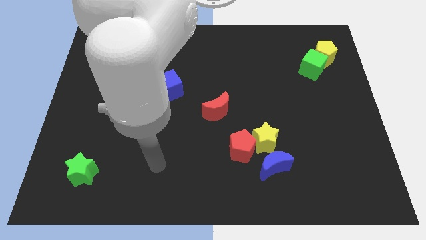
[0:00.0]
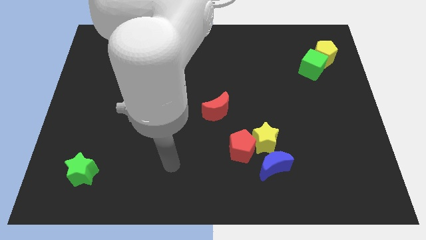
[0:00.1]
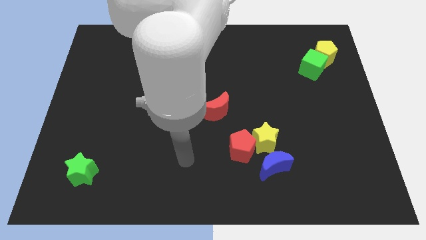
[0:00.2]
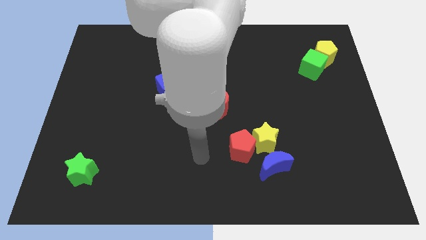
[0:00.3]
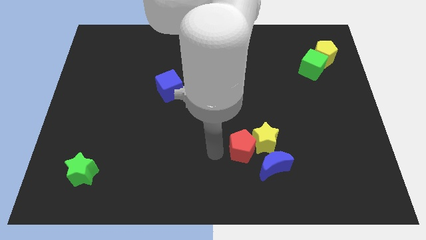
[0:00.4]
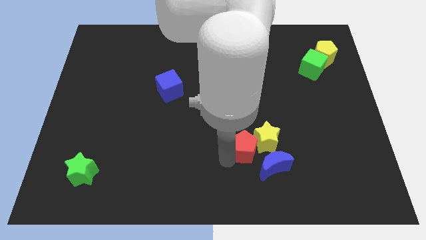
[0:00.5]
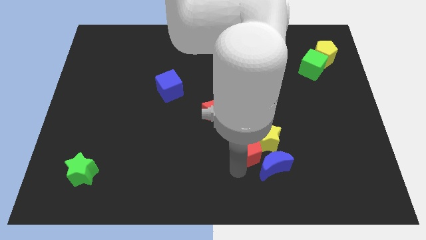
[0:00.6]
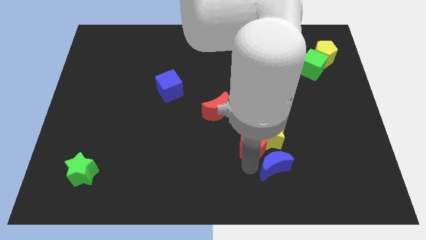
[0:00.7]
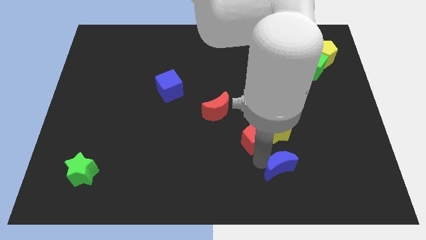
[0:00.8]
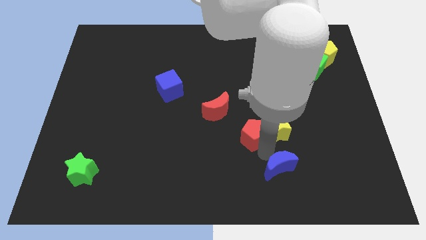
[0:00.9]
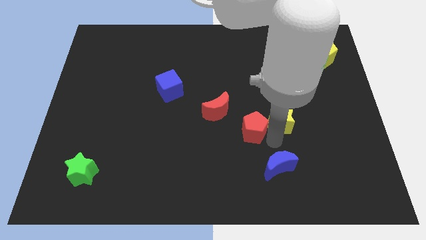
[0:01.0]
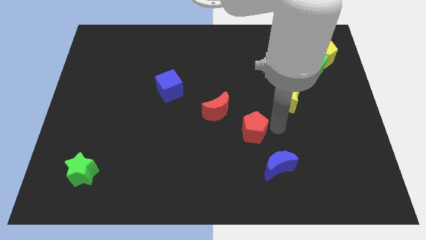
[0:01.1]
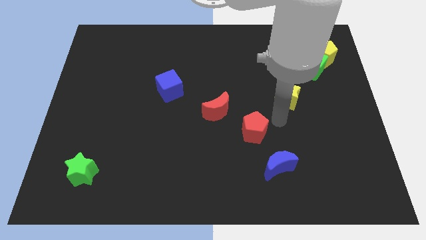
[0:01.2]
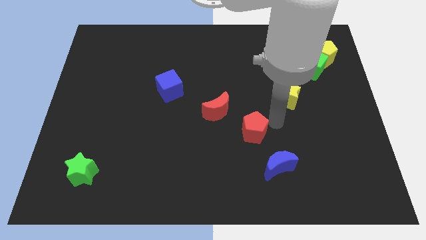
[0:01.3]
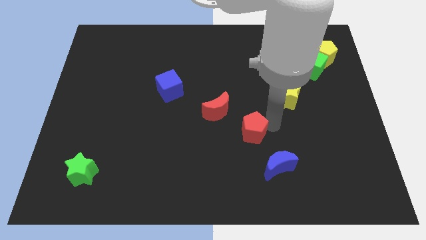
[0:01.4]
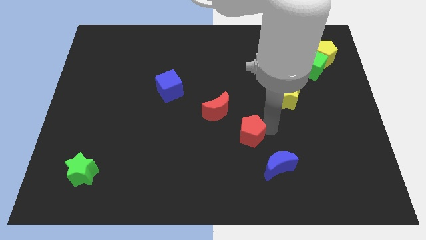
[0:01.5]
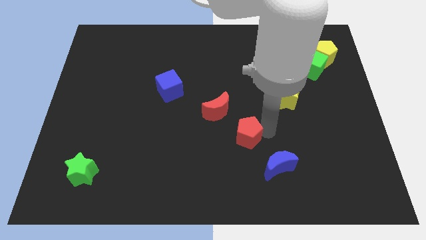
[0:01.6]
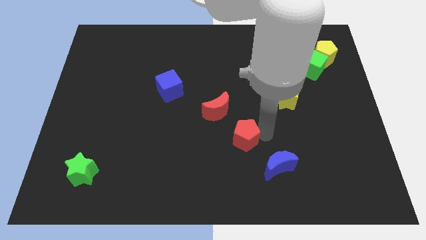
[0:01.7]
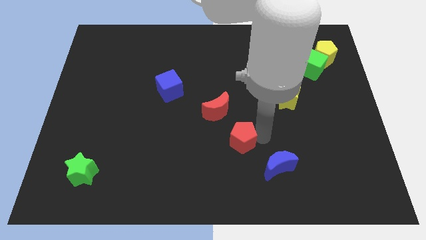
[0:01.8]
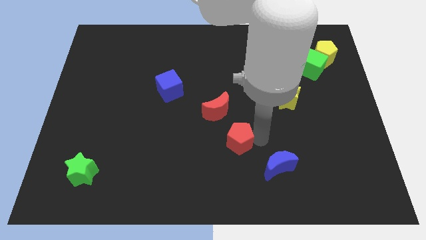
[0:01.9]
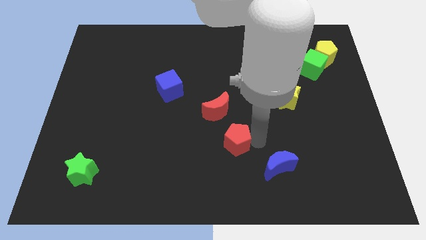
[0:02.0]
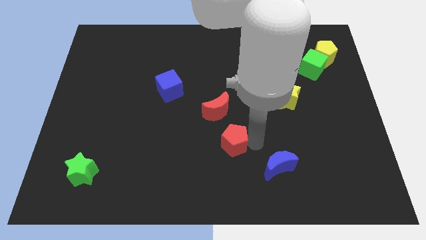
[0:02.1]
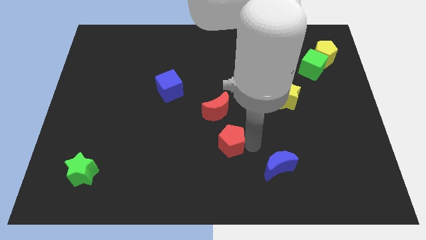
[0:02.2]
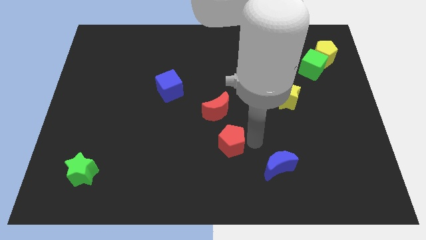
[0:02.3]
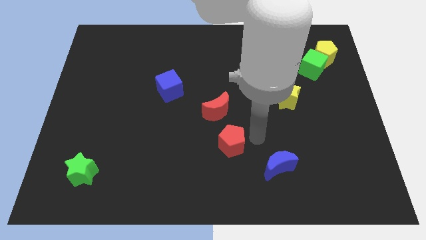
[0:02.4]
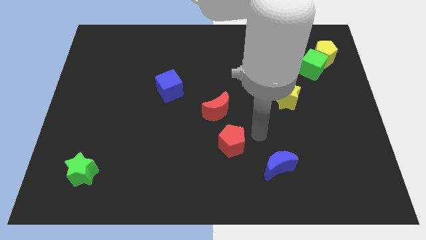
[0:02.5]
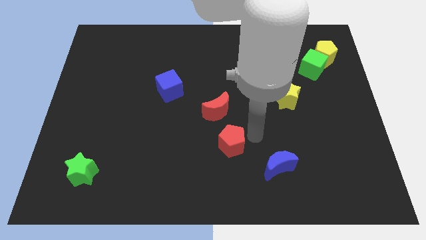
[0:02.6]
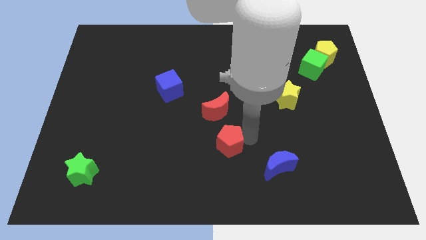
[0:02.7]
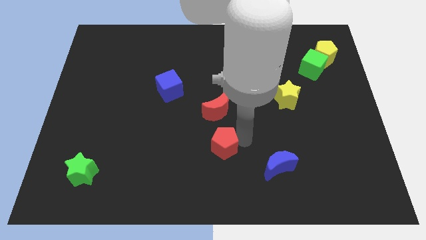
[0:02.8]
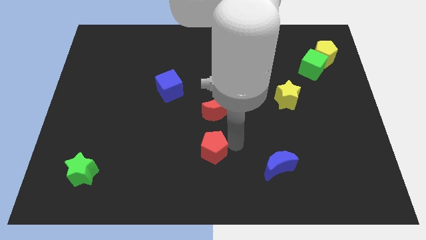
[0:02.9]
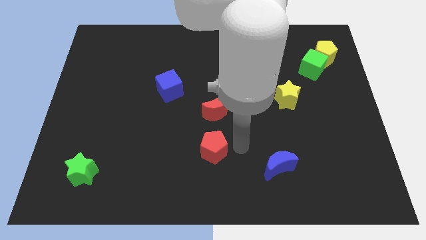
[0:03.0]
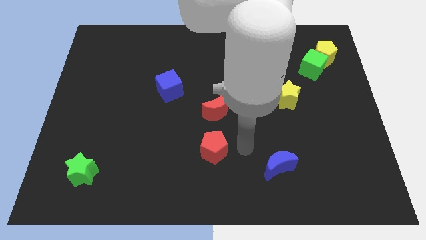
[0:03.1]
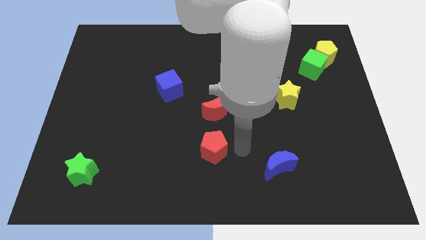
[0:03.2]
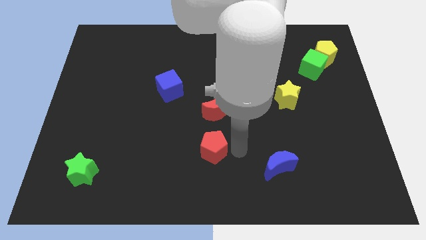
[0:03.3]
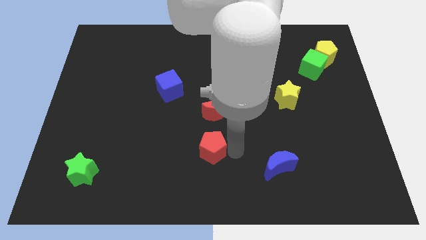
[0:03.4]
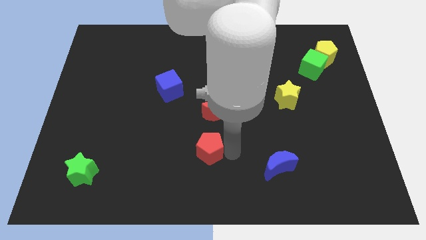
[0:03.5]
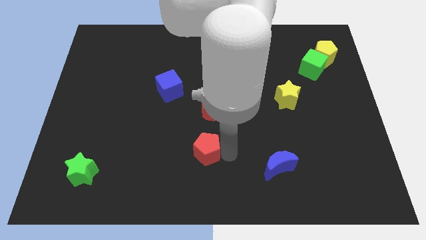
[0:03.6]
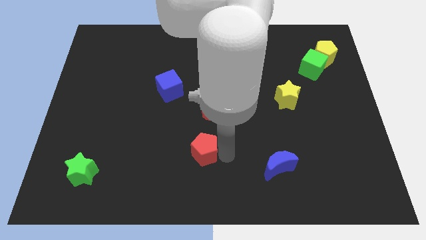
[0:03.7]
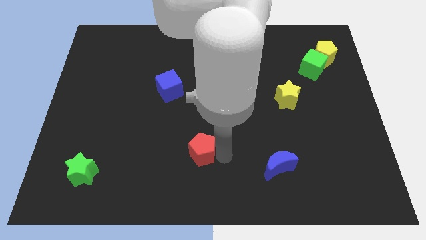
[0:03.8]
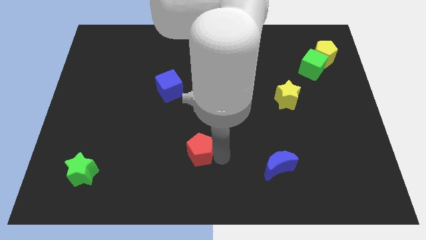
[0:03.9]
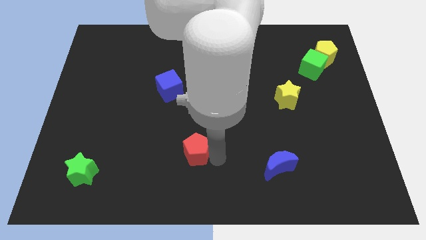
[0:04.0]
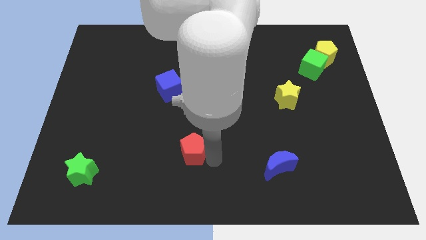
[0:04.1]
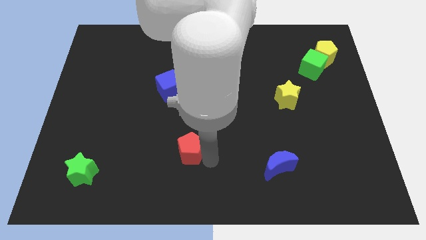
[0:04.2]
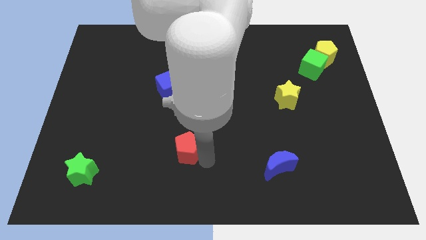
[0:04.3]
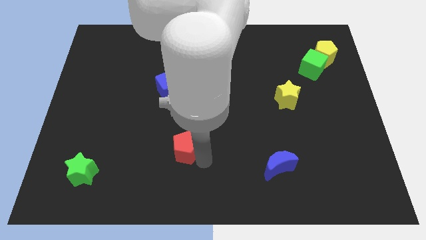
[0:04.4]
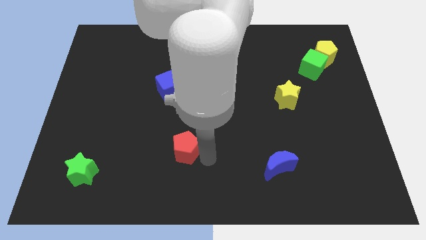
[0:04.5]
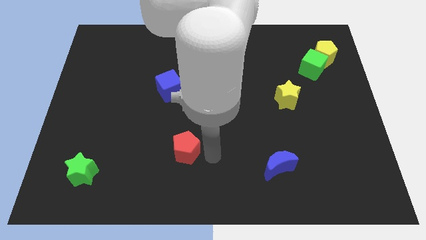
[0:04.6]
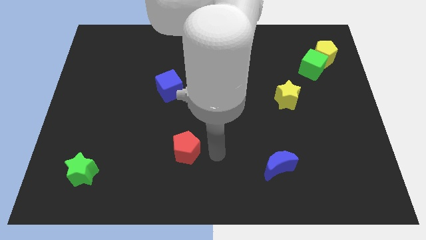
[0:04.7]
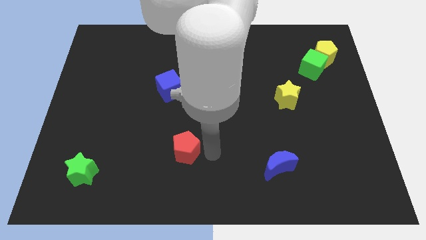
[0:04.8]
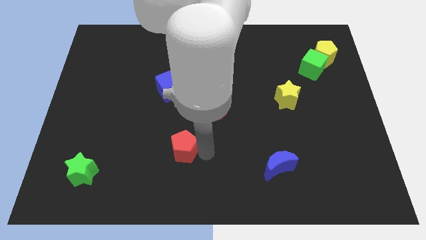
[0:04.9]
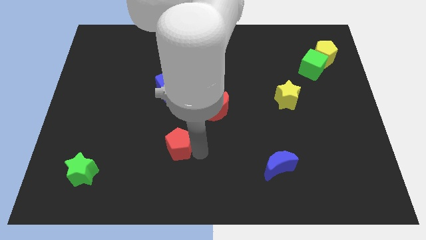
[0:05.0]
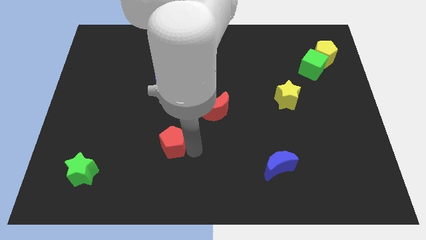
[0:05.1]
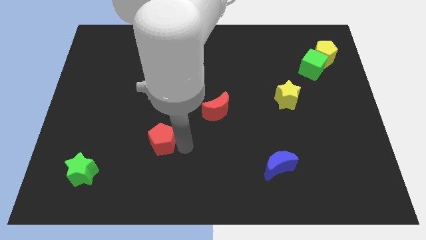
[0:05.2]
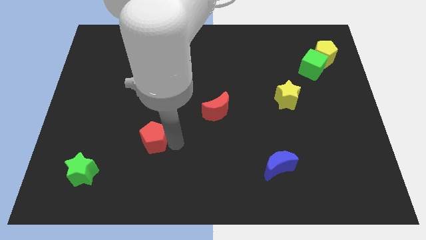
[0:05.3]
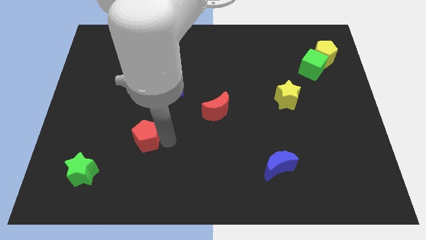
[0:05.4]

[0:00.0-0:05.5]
push the red pentagon to the left

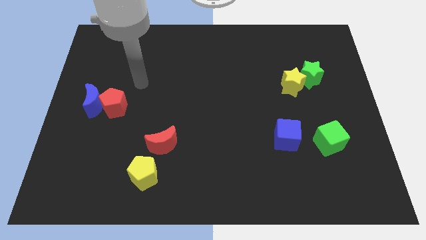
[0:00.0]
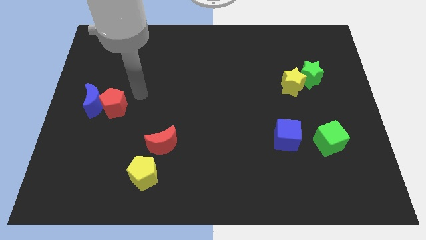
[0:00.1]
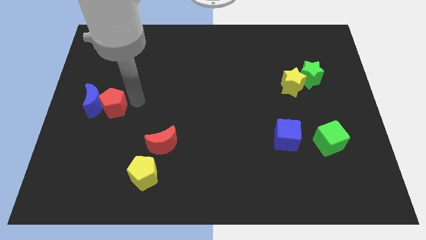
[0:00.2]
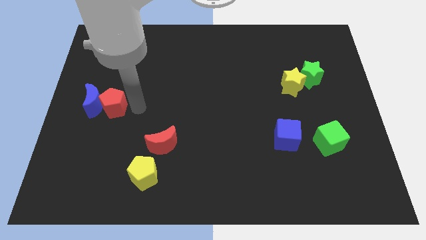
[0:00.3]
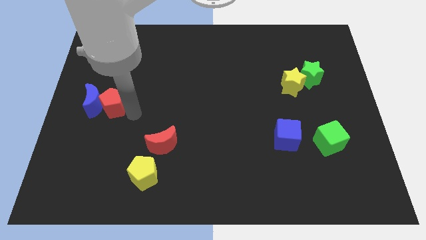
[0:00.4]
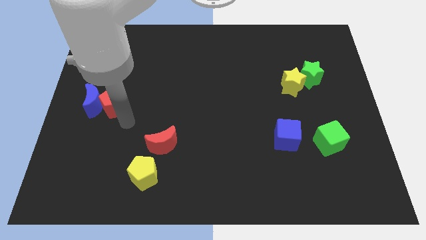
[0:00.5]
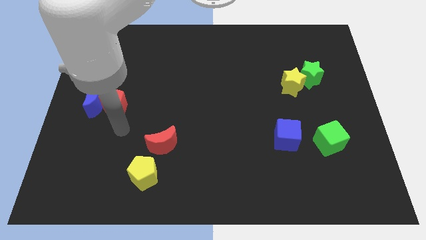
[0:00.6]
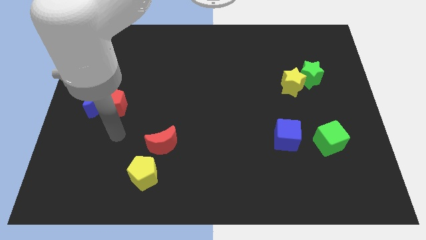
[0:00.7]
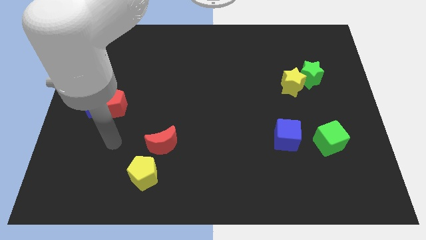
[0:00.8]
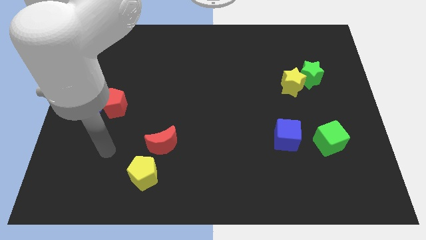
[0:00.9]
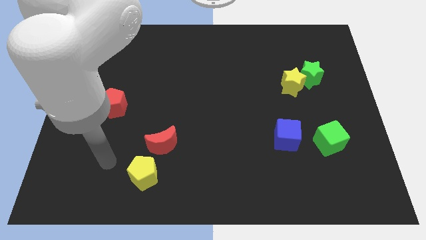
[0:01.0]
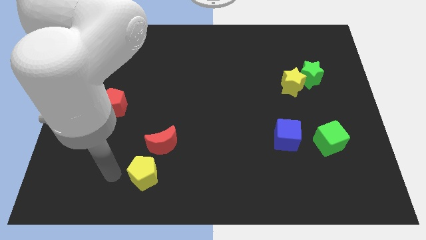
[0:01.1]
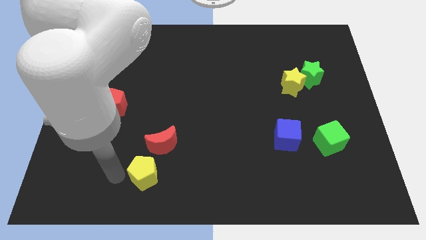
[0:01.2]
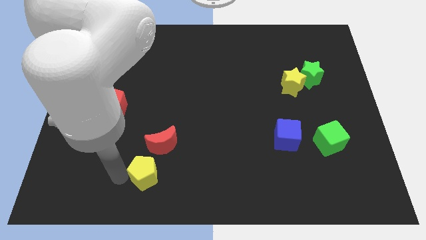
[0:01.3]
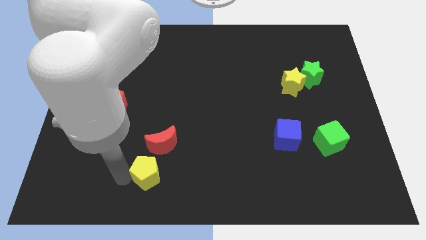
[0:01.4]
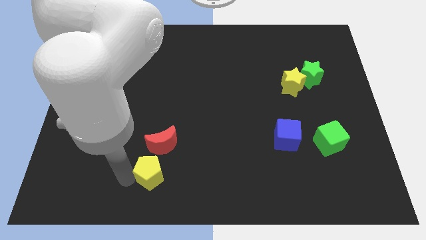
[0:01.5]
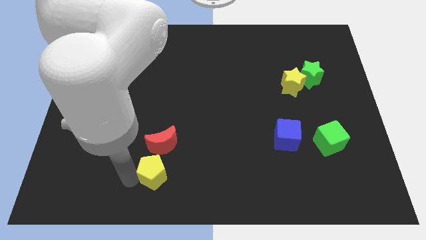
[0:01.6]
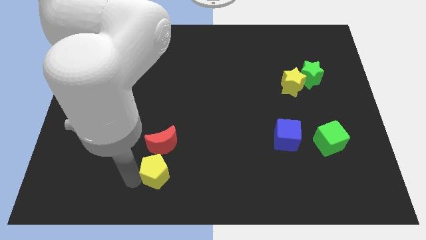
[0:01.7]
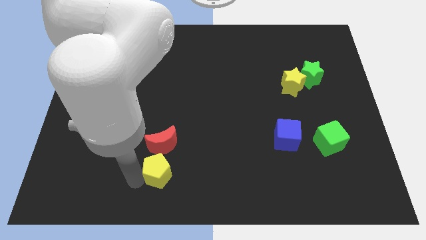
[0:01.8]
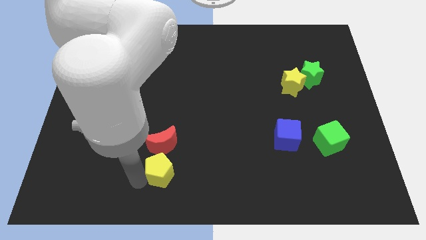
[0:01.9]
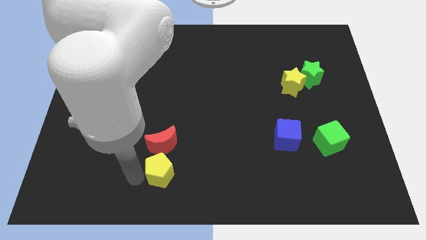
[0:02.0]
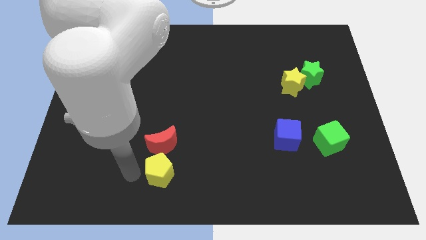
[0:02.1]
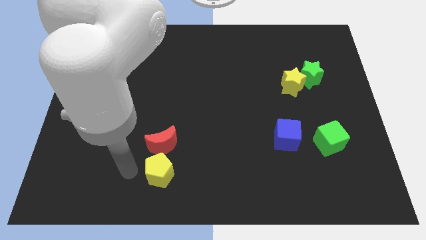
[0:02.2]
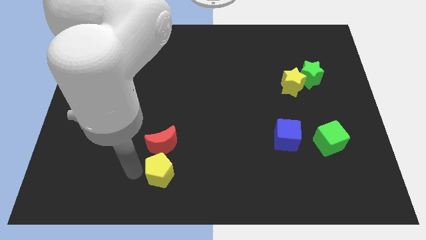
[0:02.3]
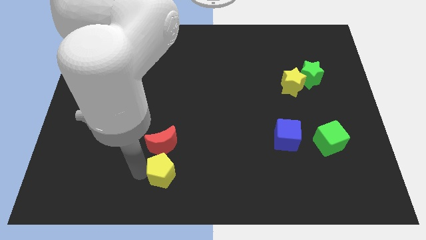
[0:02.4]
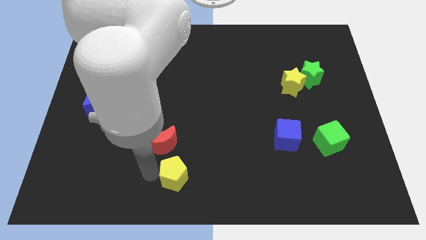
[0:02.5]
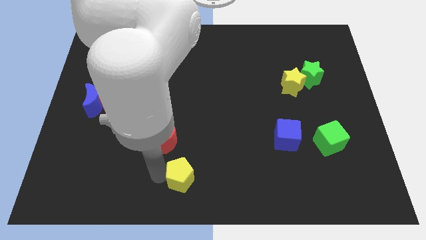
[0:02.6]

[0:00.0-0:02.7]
push the yellow pentagon somewhat to the right
